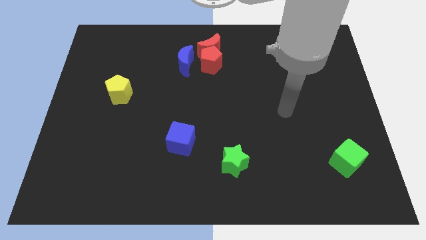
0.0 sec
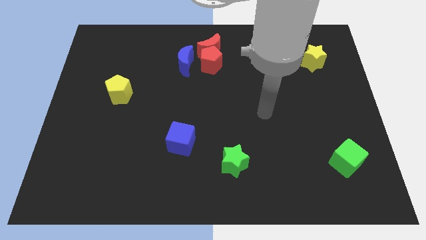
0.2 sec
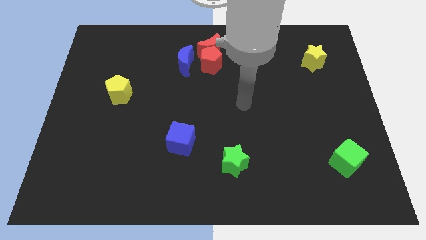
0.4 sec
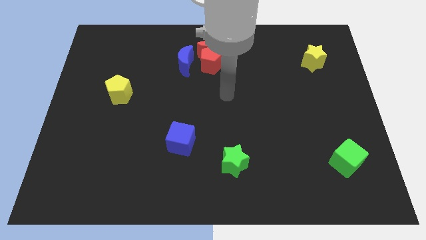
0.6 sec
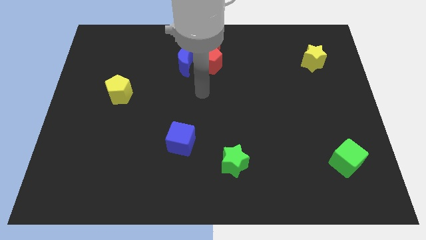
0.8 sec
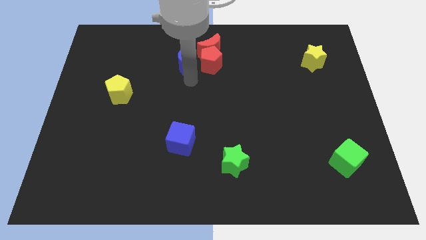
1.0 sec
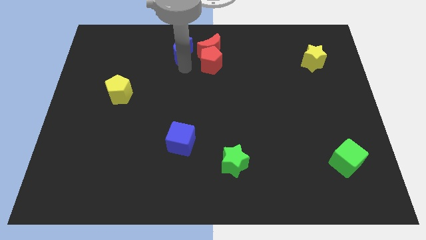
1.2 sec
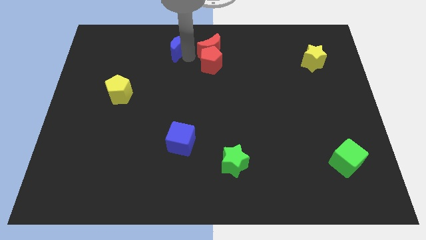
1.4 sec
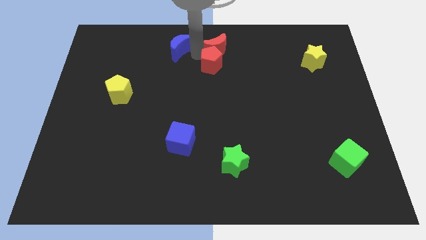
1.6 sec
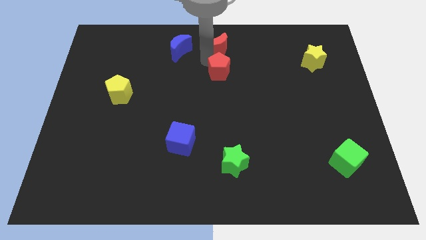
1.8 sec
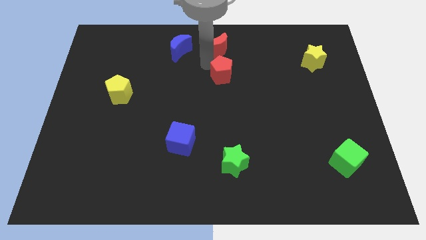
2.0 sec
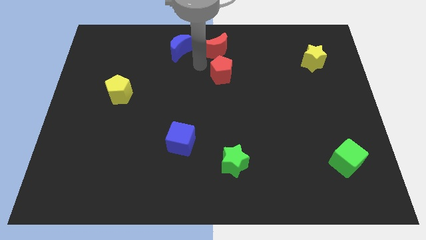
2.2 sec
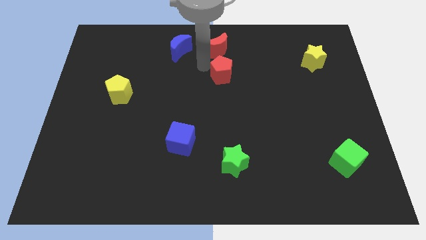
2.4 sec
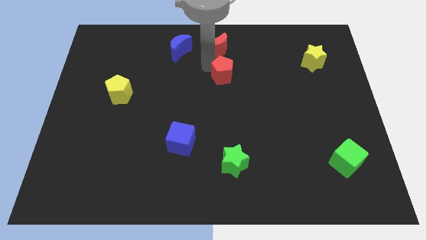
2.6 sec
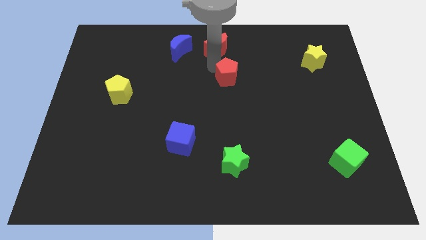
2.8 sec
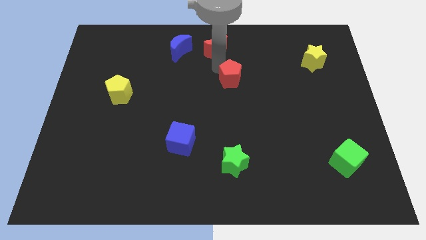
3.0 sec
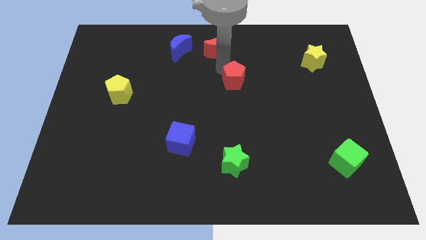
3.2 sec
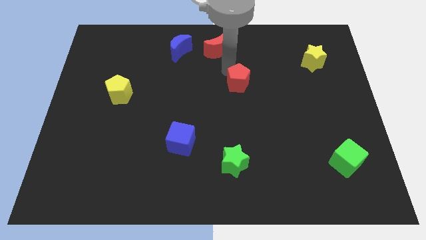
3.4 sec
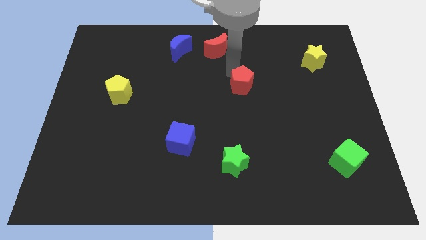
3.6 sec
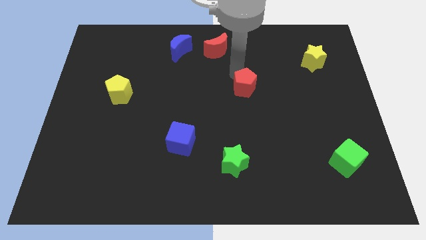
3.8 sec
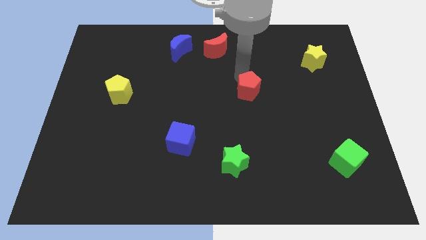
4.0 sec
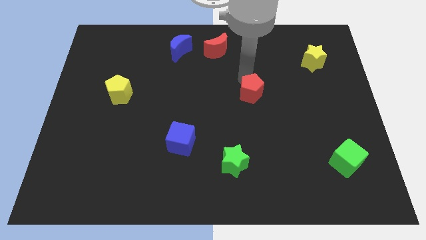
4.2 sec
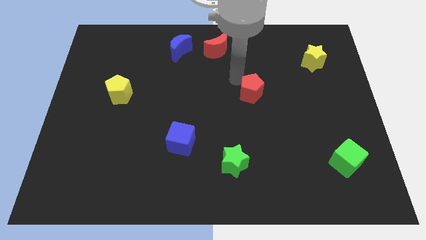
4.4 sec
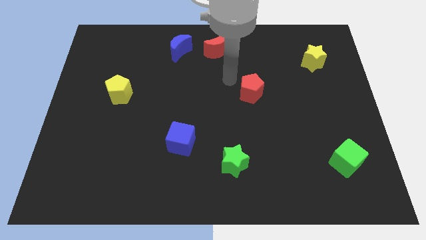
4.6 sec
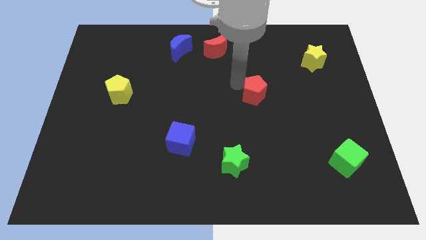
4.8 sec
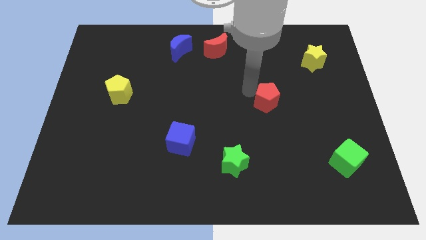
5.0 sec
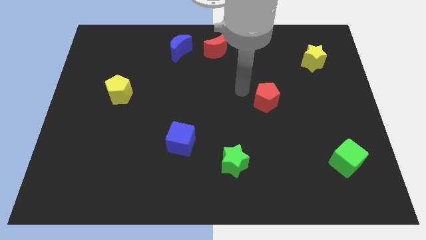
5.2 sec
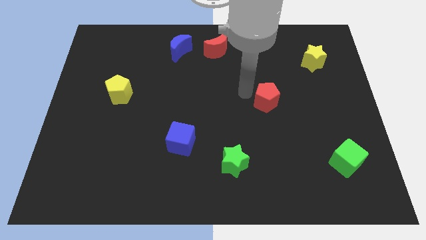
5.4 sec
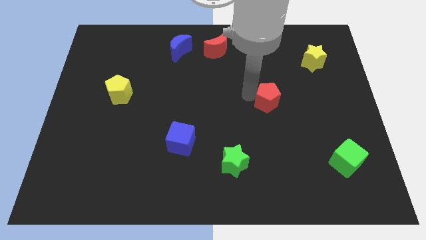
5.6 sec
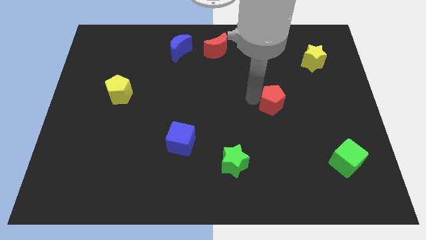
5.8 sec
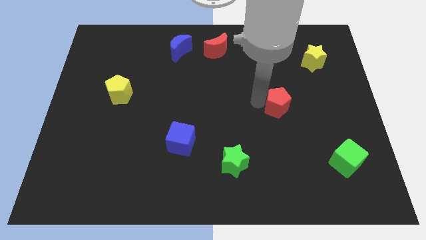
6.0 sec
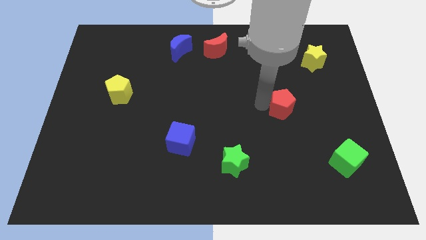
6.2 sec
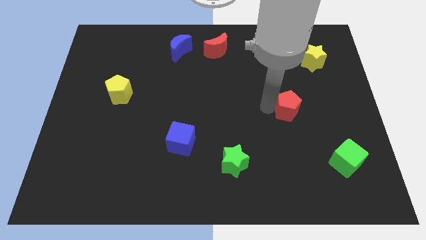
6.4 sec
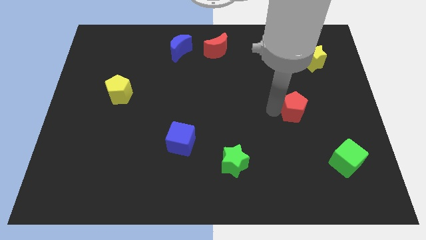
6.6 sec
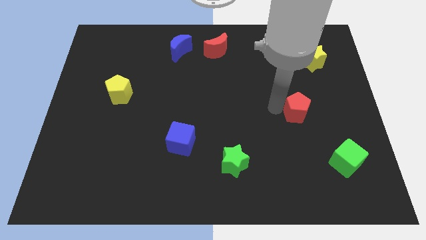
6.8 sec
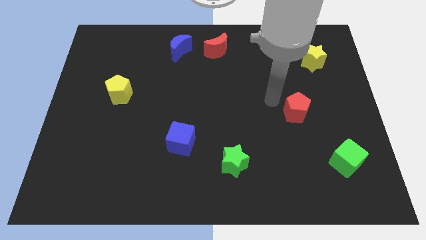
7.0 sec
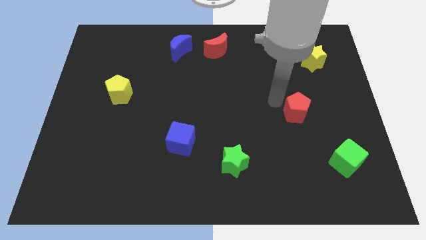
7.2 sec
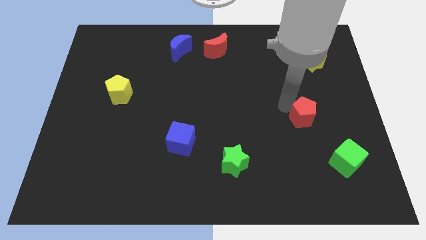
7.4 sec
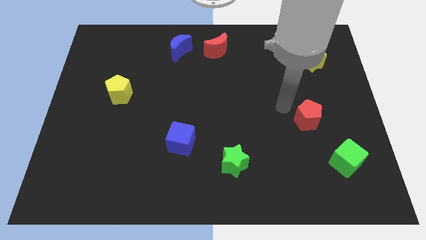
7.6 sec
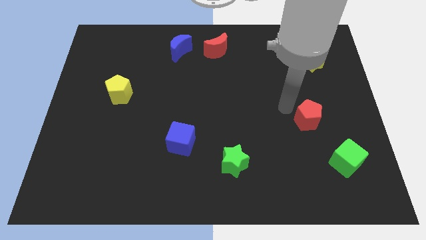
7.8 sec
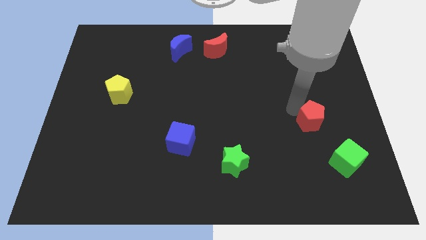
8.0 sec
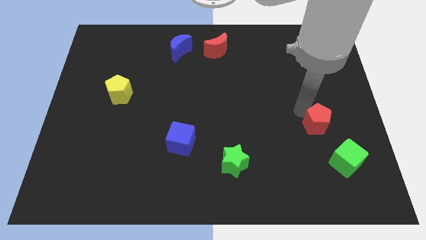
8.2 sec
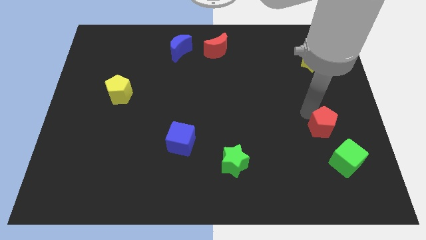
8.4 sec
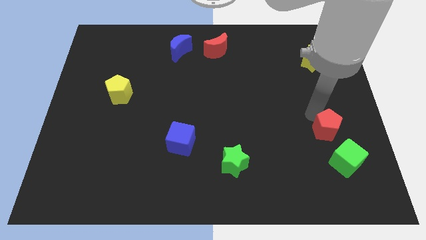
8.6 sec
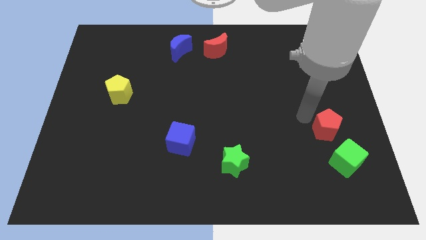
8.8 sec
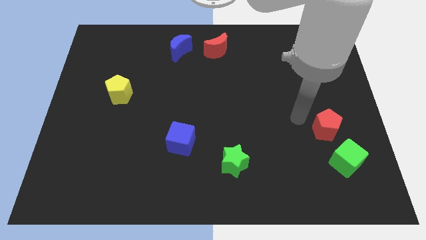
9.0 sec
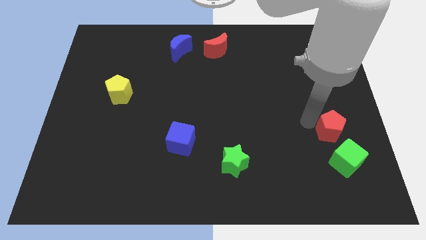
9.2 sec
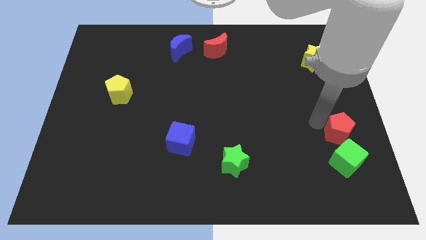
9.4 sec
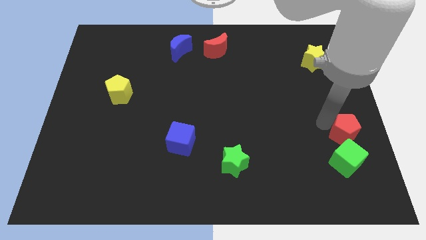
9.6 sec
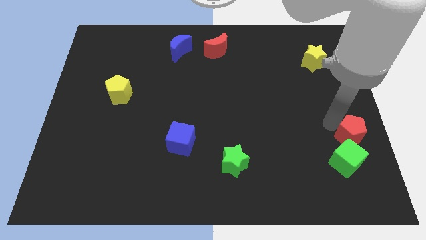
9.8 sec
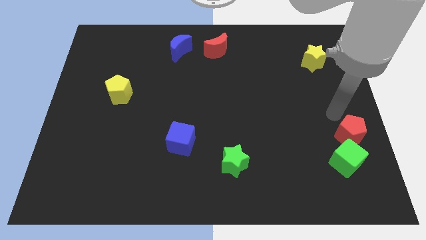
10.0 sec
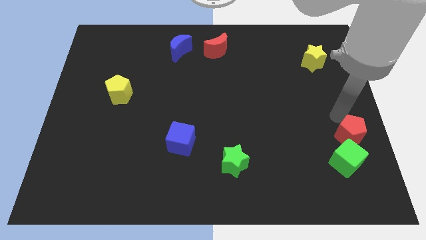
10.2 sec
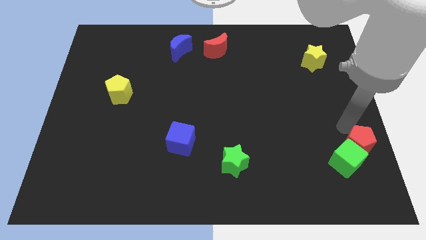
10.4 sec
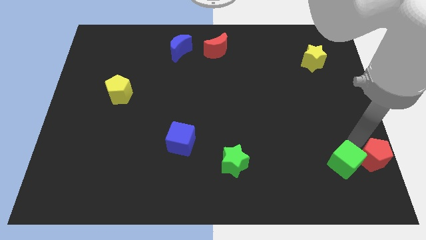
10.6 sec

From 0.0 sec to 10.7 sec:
slide the red pentagon to the bottom right
